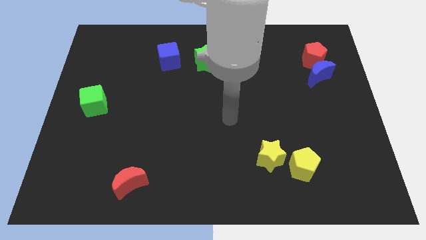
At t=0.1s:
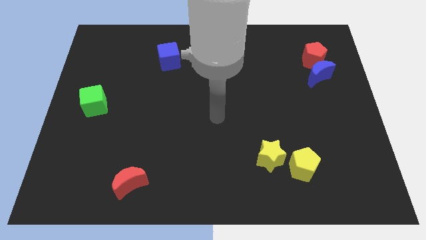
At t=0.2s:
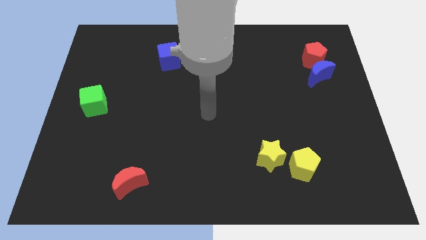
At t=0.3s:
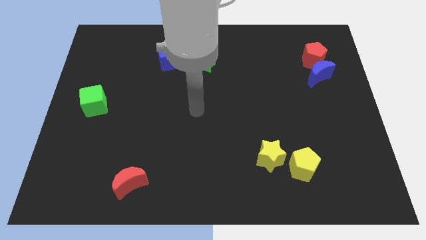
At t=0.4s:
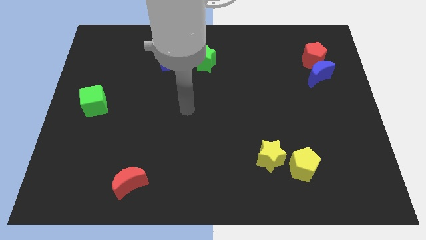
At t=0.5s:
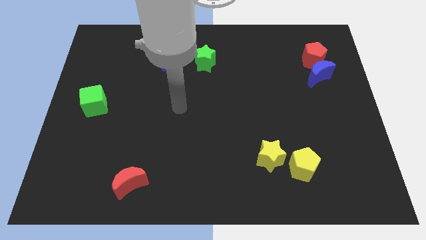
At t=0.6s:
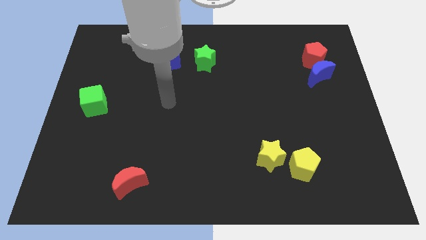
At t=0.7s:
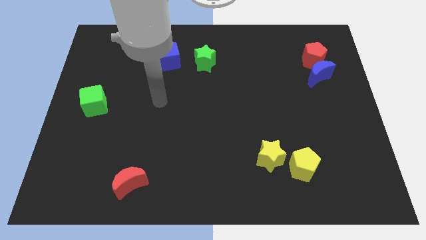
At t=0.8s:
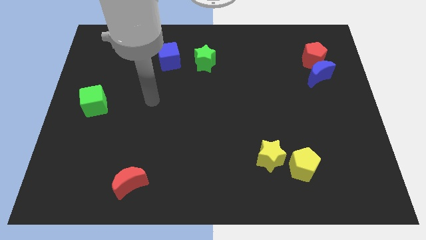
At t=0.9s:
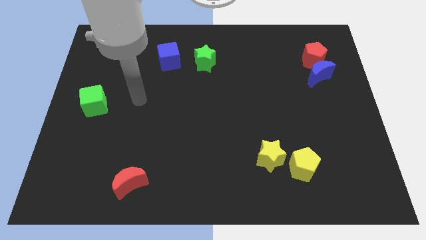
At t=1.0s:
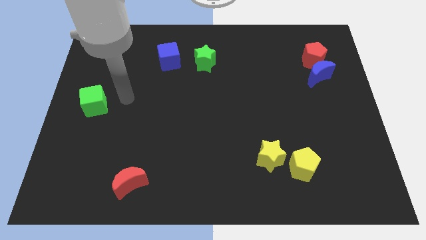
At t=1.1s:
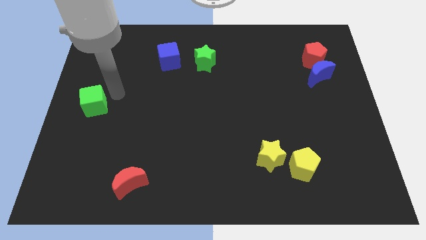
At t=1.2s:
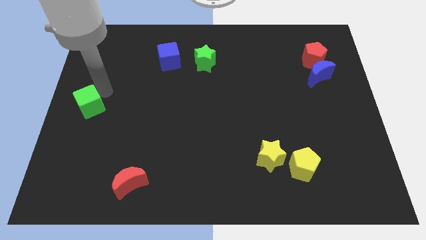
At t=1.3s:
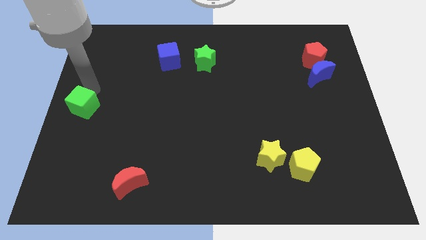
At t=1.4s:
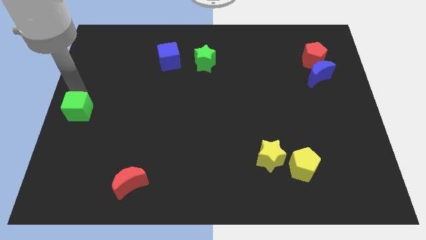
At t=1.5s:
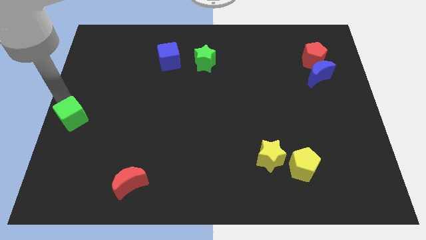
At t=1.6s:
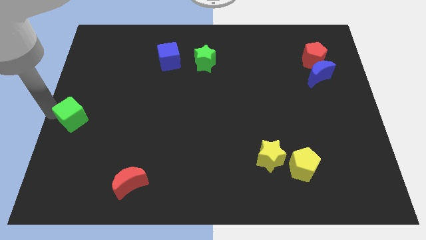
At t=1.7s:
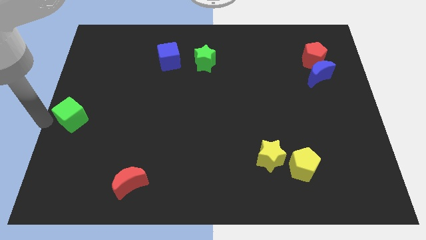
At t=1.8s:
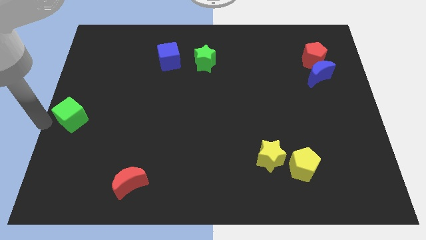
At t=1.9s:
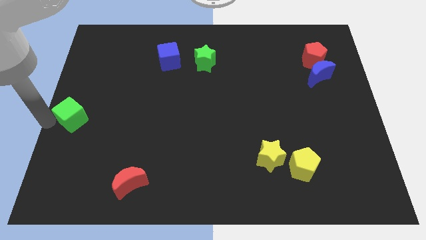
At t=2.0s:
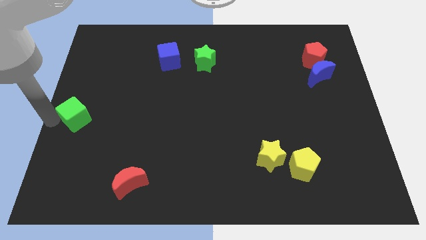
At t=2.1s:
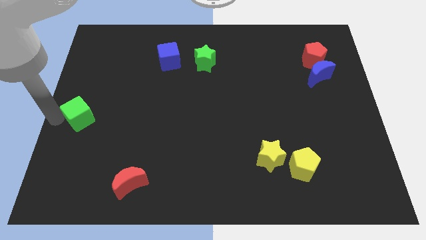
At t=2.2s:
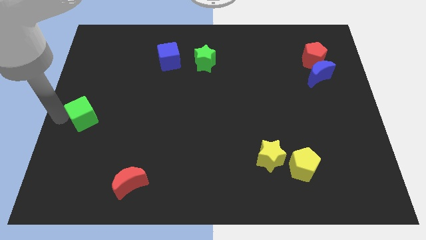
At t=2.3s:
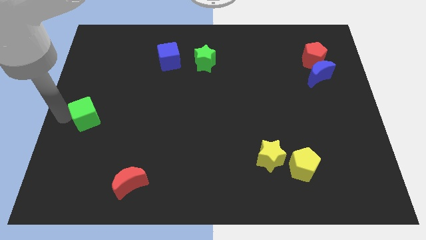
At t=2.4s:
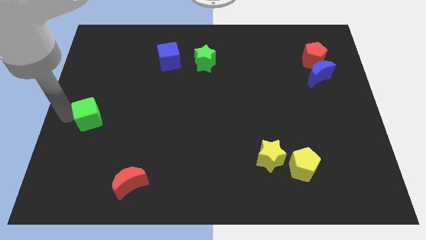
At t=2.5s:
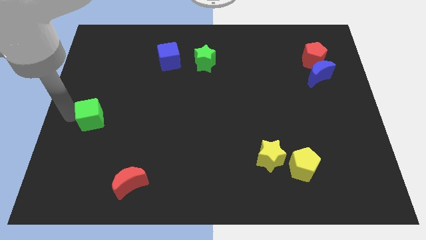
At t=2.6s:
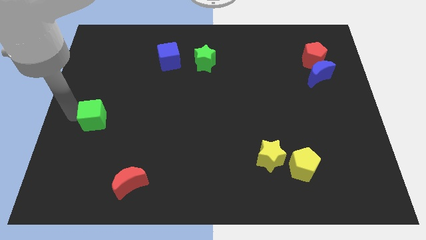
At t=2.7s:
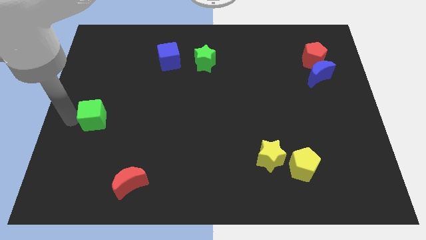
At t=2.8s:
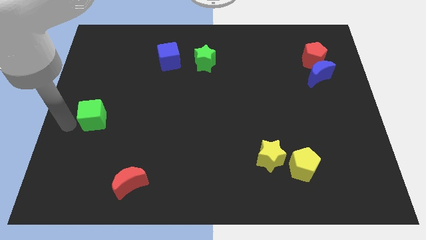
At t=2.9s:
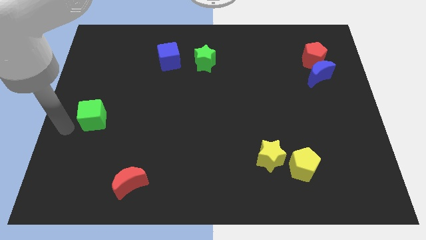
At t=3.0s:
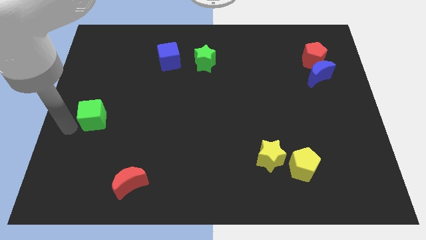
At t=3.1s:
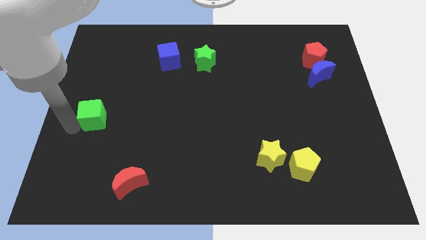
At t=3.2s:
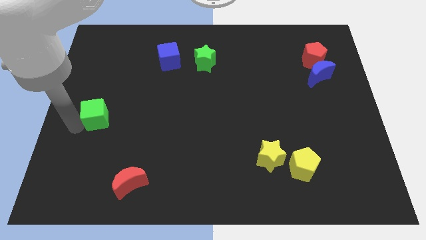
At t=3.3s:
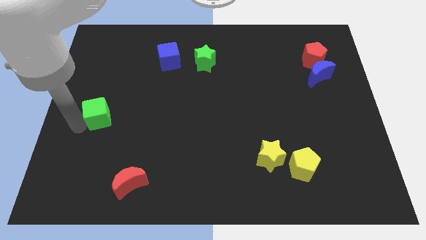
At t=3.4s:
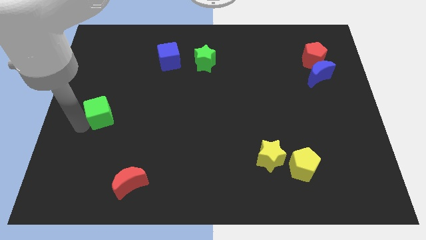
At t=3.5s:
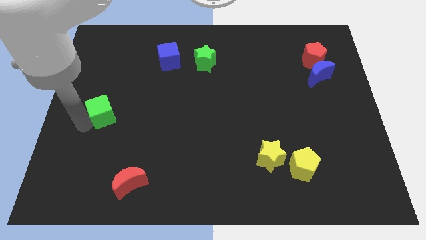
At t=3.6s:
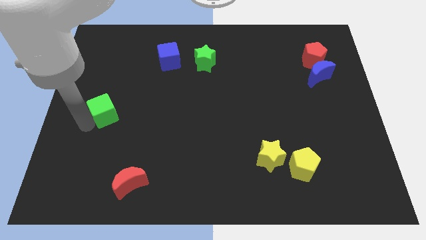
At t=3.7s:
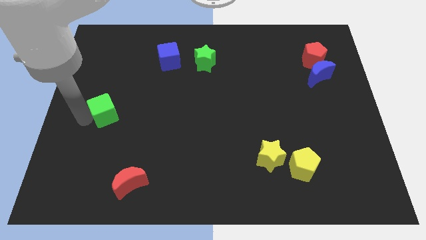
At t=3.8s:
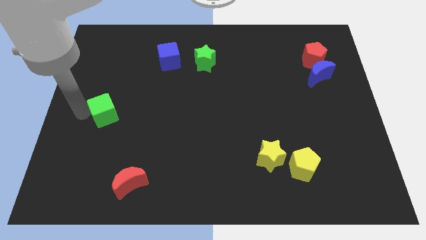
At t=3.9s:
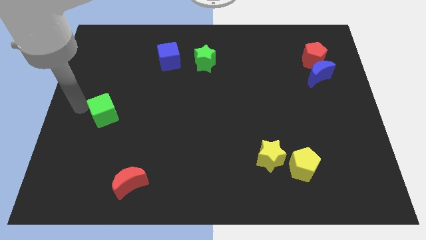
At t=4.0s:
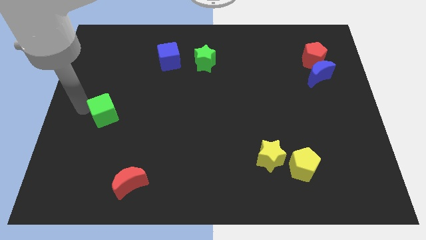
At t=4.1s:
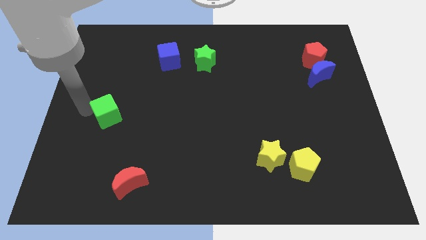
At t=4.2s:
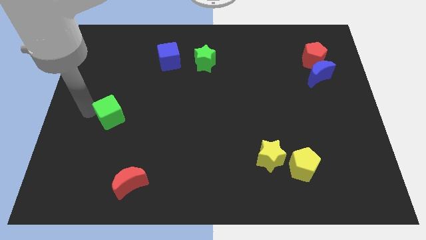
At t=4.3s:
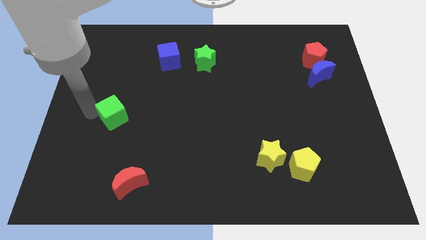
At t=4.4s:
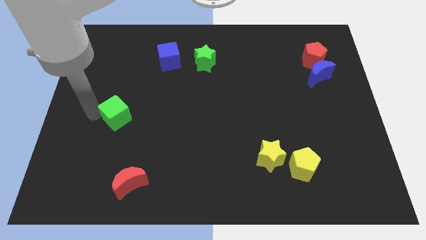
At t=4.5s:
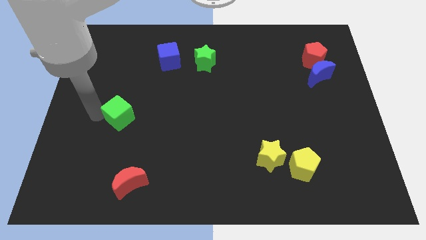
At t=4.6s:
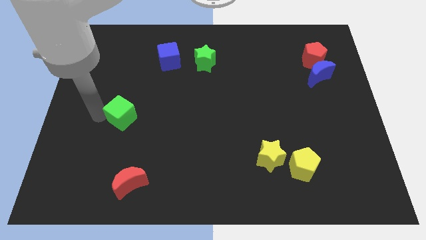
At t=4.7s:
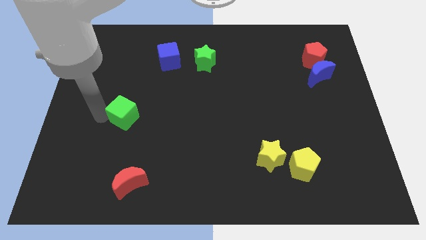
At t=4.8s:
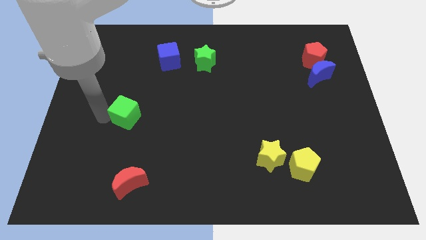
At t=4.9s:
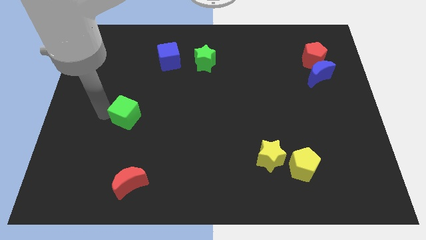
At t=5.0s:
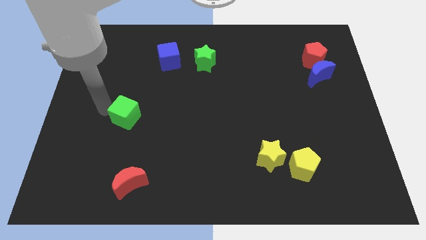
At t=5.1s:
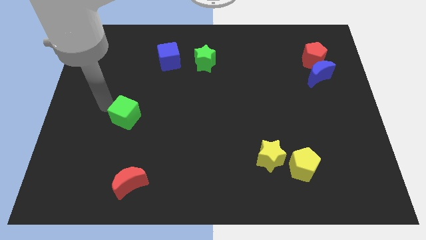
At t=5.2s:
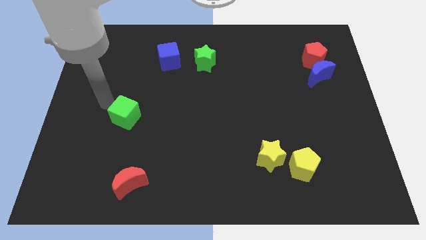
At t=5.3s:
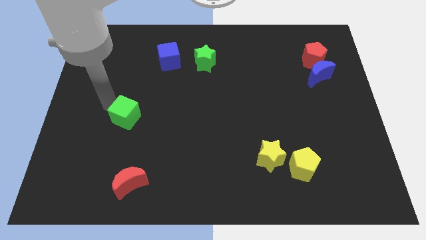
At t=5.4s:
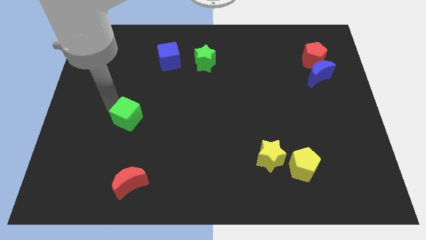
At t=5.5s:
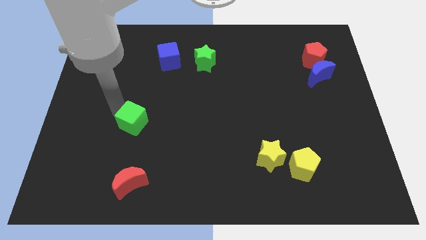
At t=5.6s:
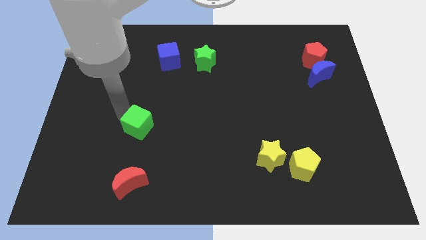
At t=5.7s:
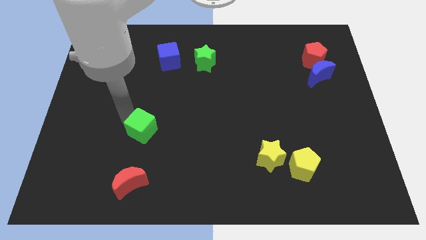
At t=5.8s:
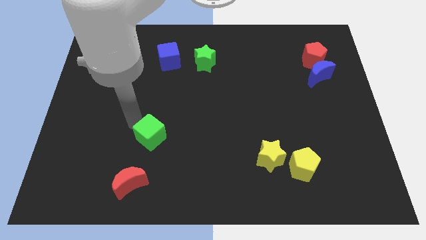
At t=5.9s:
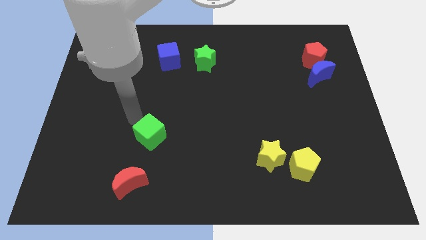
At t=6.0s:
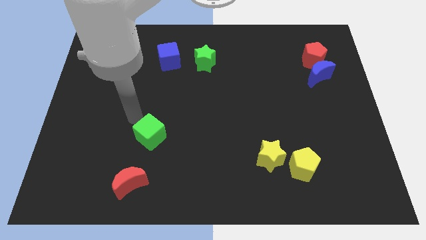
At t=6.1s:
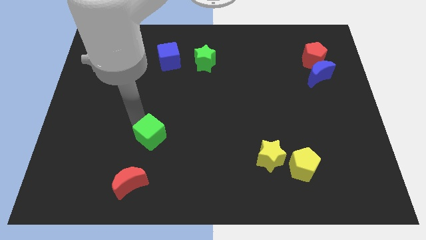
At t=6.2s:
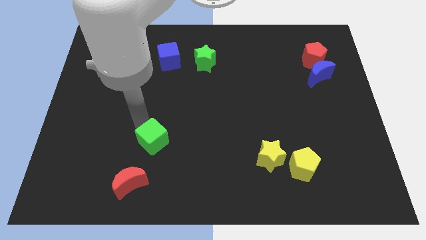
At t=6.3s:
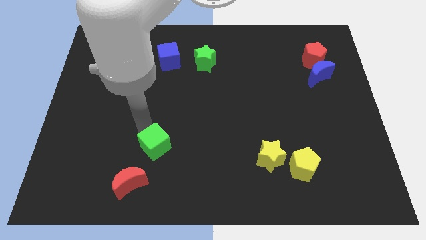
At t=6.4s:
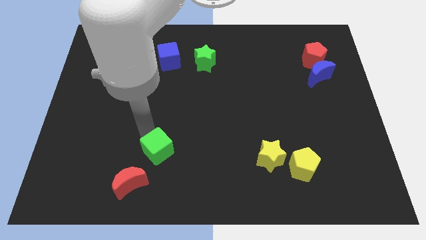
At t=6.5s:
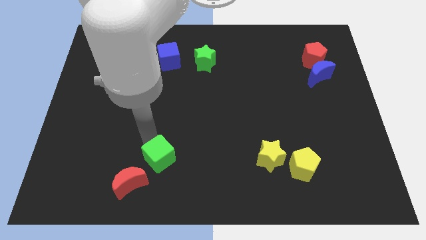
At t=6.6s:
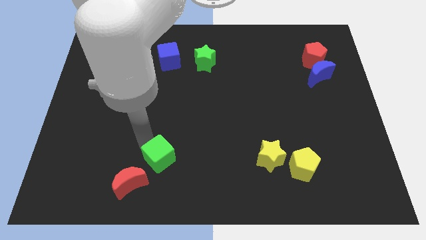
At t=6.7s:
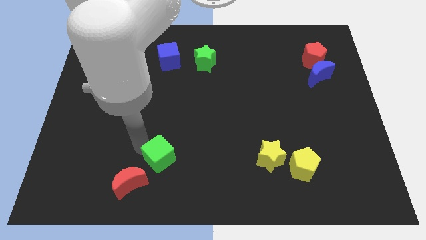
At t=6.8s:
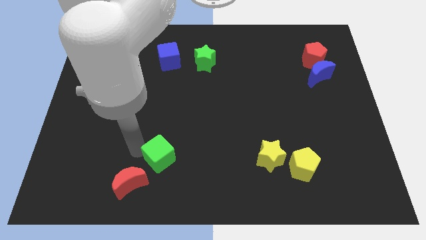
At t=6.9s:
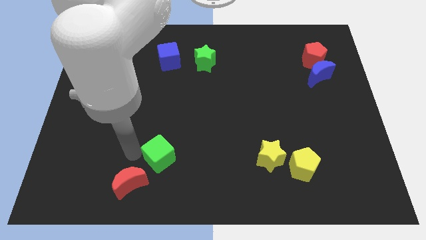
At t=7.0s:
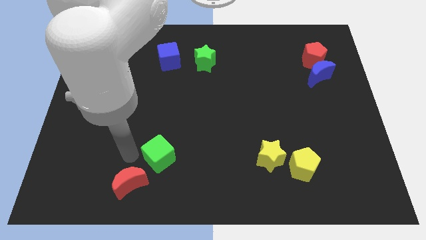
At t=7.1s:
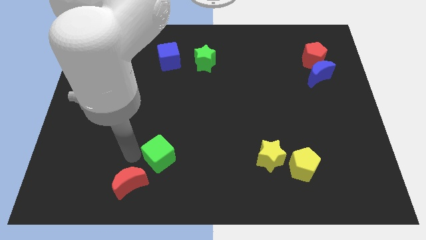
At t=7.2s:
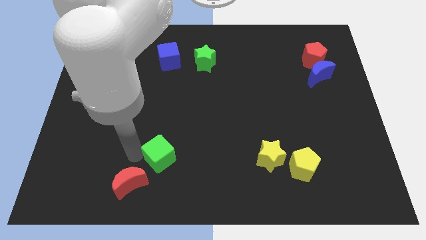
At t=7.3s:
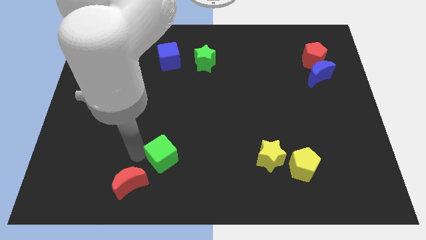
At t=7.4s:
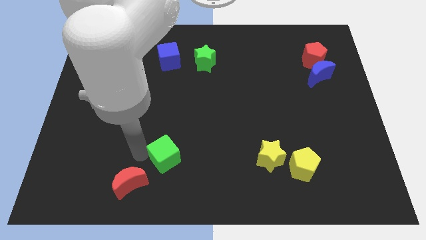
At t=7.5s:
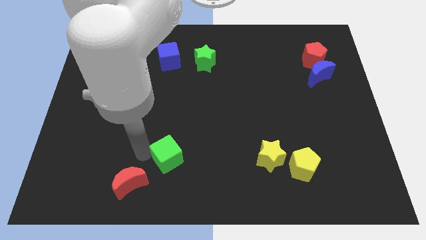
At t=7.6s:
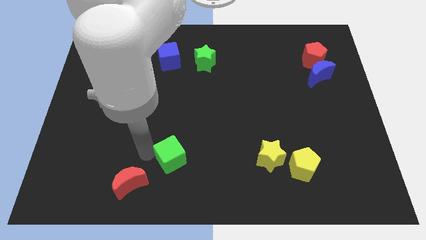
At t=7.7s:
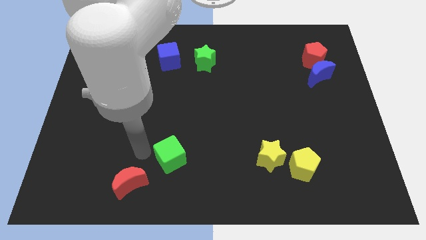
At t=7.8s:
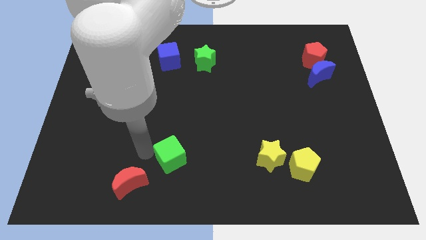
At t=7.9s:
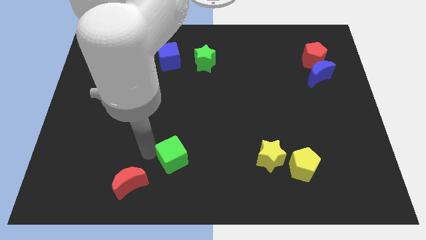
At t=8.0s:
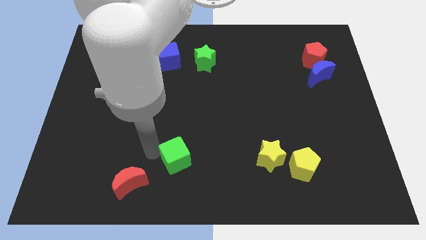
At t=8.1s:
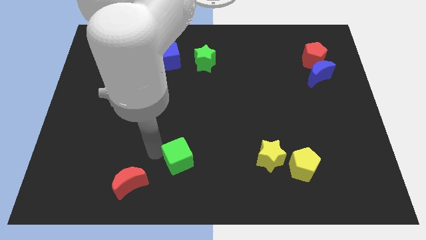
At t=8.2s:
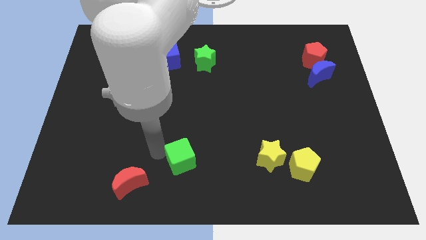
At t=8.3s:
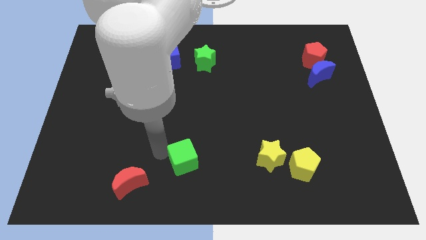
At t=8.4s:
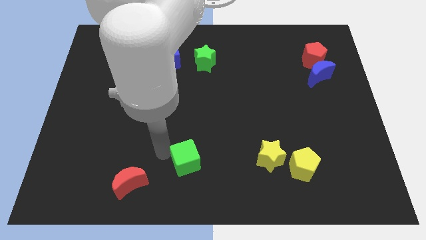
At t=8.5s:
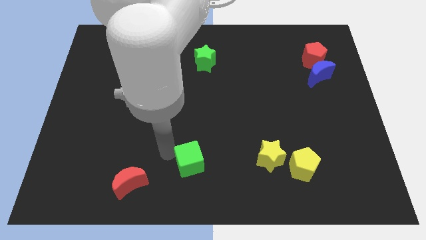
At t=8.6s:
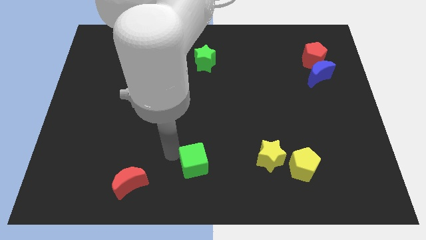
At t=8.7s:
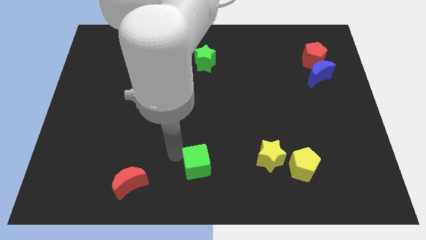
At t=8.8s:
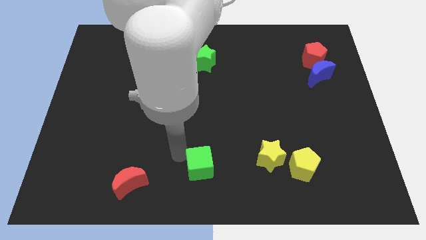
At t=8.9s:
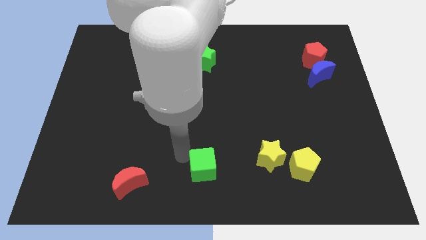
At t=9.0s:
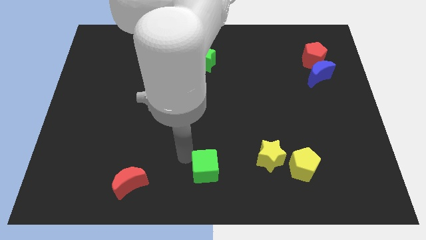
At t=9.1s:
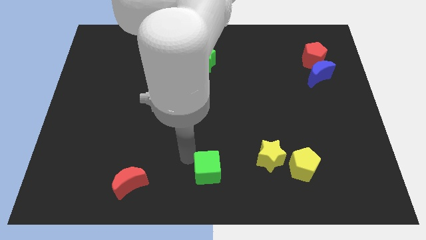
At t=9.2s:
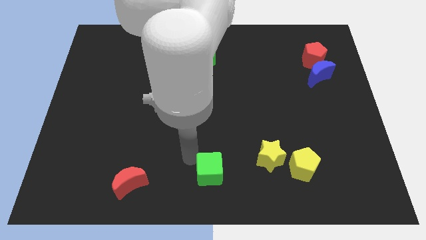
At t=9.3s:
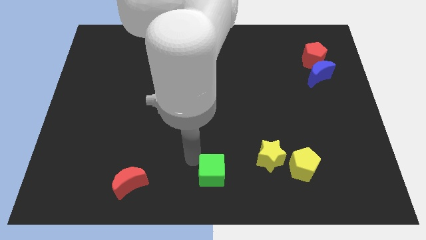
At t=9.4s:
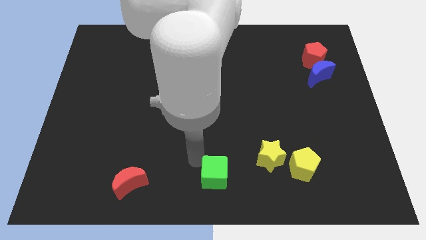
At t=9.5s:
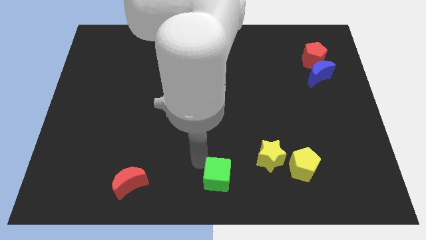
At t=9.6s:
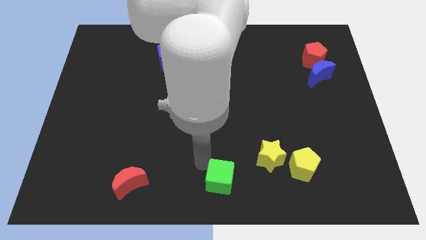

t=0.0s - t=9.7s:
move the green cube to the bottom left of the yellow star
